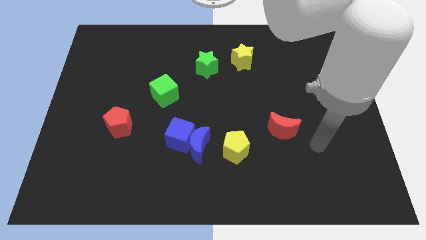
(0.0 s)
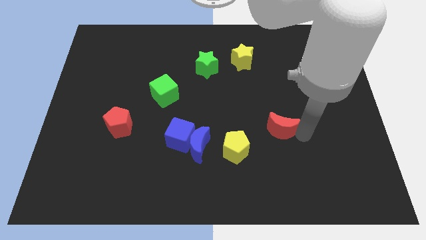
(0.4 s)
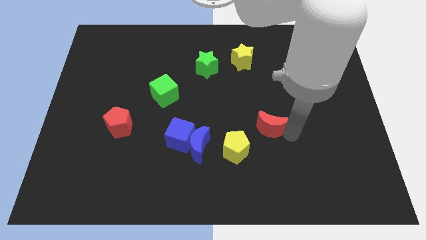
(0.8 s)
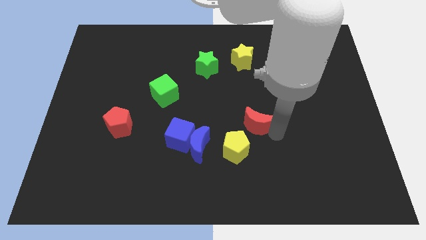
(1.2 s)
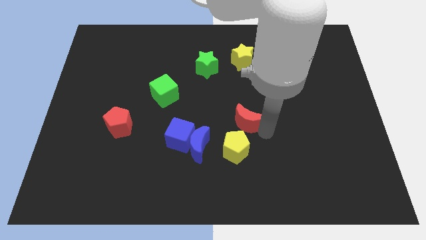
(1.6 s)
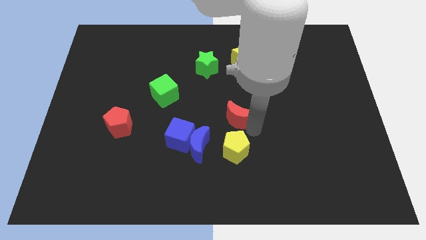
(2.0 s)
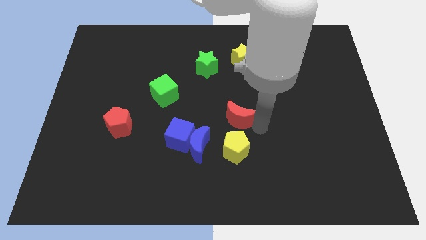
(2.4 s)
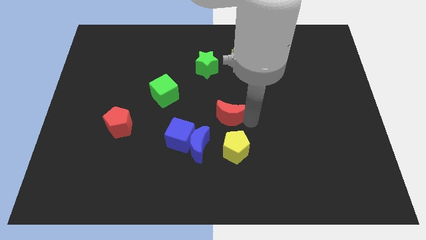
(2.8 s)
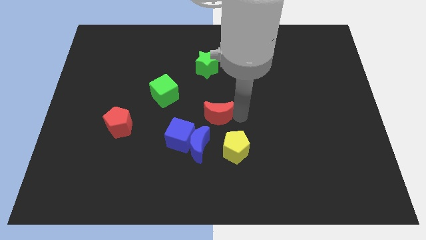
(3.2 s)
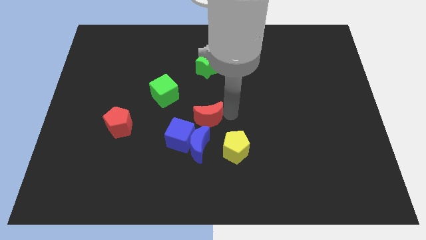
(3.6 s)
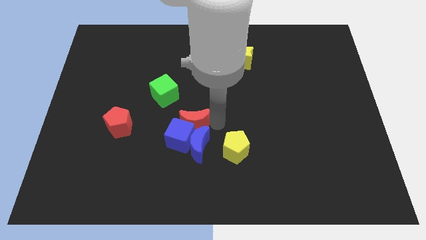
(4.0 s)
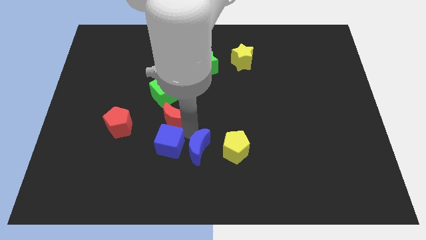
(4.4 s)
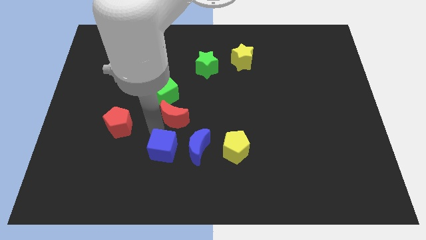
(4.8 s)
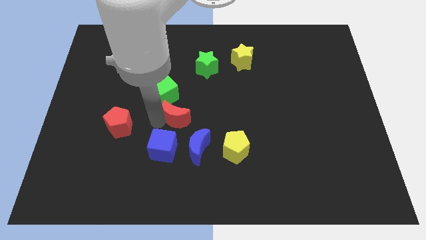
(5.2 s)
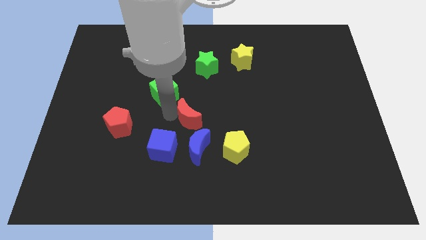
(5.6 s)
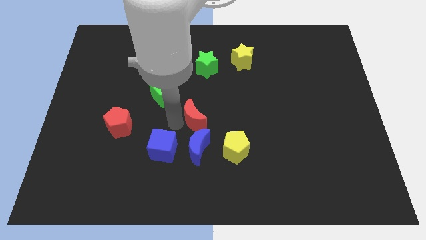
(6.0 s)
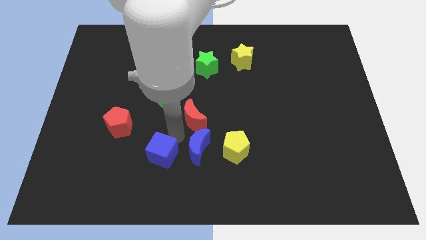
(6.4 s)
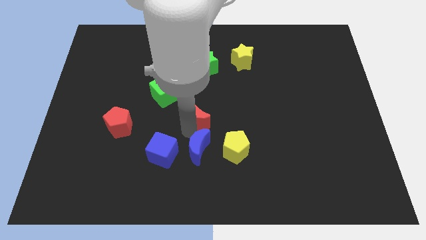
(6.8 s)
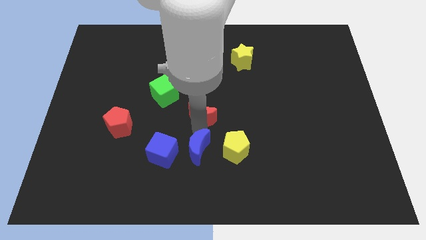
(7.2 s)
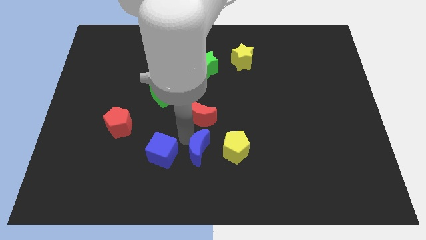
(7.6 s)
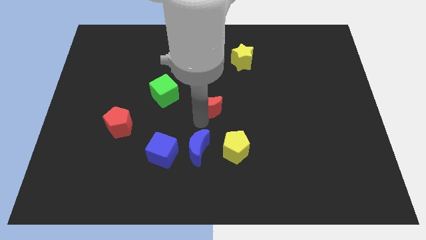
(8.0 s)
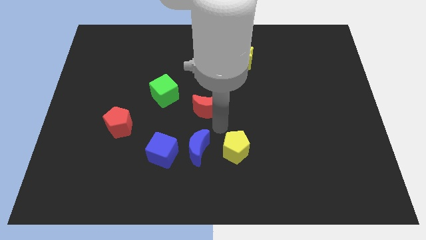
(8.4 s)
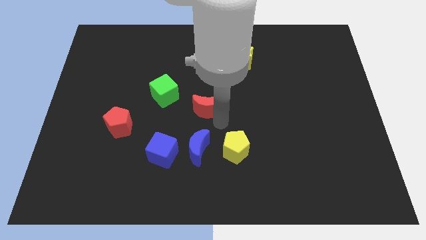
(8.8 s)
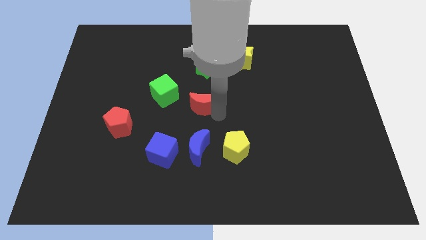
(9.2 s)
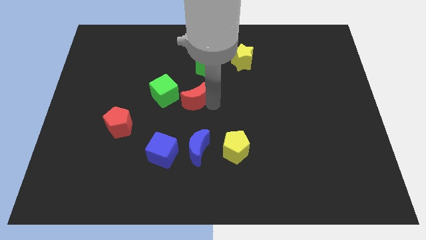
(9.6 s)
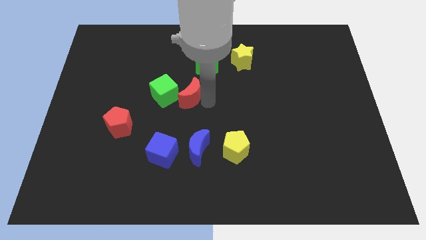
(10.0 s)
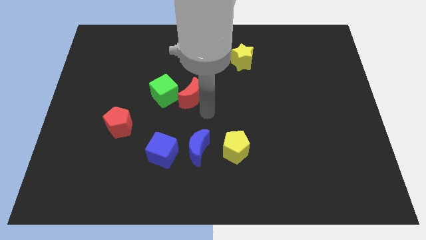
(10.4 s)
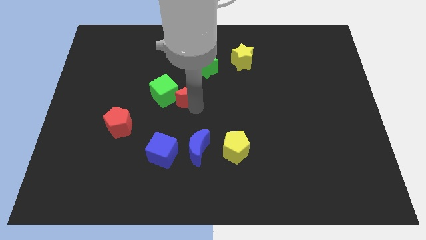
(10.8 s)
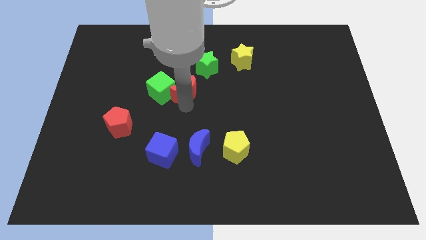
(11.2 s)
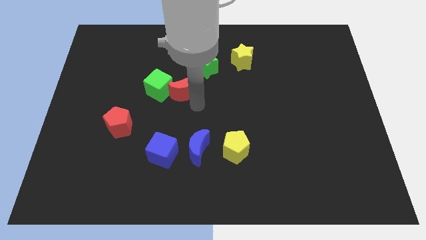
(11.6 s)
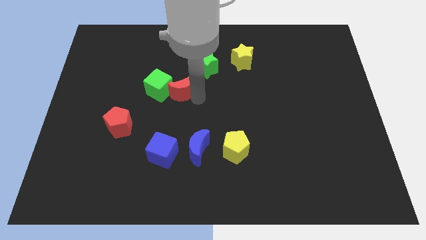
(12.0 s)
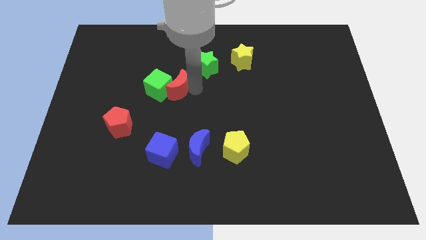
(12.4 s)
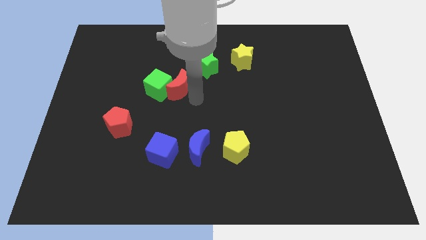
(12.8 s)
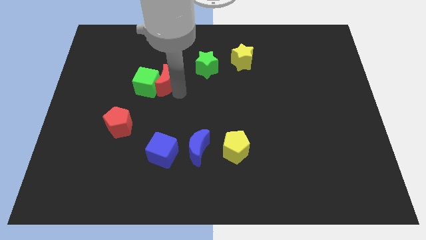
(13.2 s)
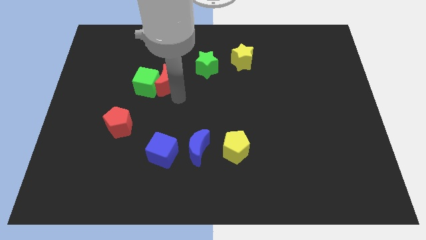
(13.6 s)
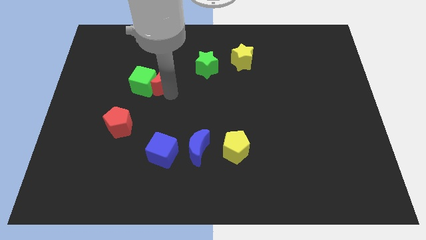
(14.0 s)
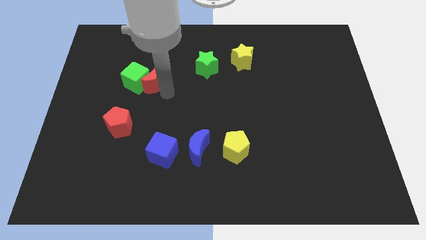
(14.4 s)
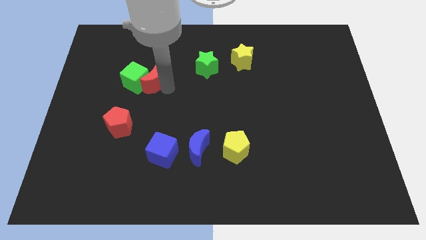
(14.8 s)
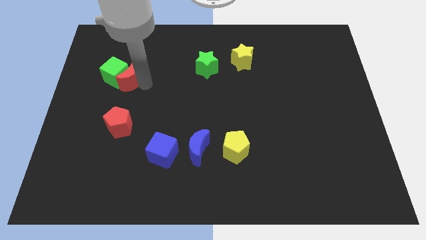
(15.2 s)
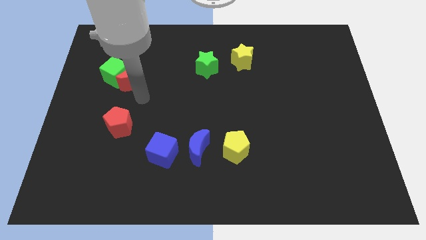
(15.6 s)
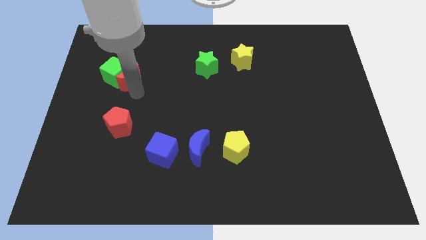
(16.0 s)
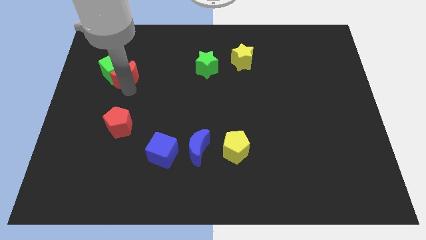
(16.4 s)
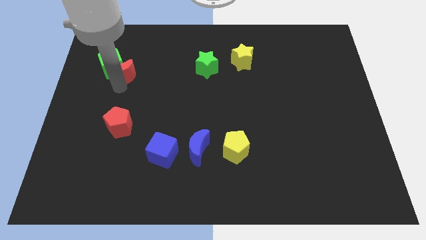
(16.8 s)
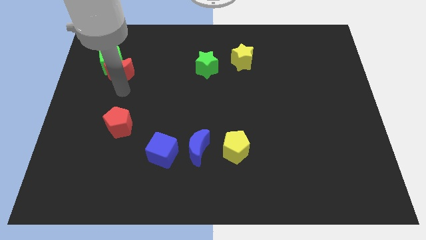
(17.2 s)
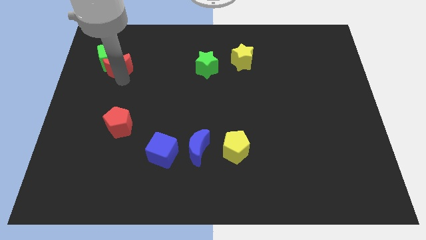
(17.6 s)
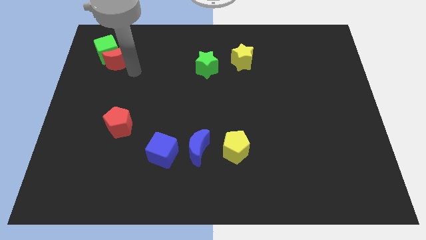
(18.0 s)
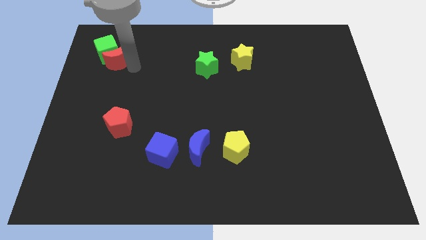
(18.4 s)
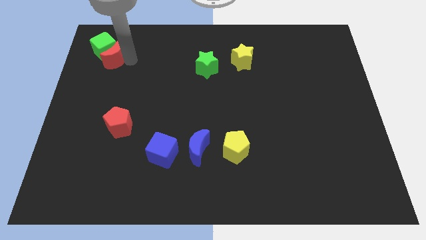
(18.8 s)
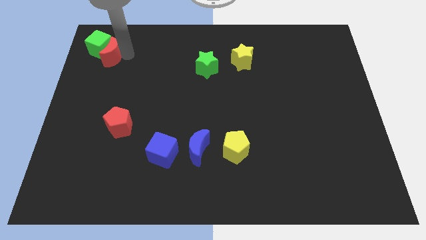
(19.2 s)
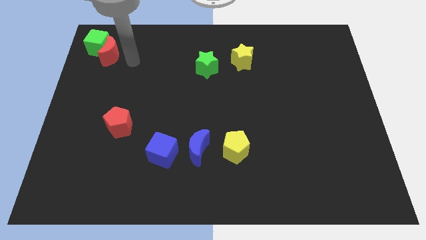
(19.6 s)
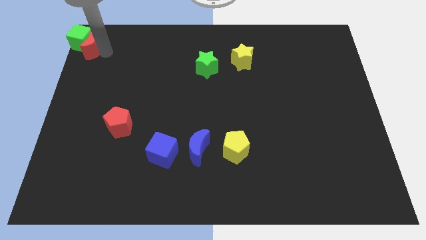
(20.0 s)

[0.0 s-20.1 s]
push the red moon to the top left corner

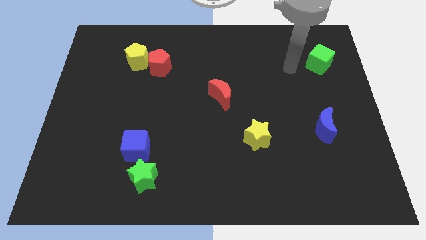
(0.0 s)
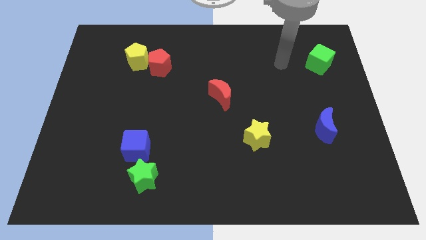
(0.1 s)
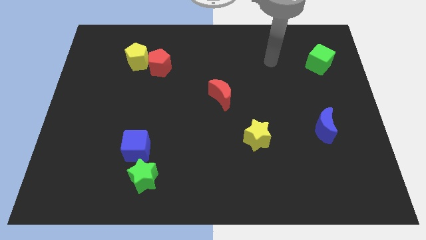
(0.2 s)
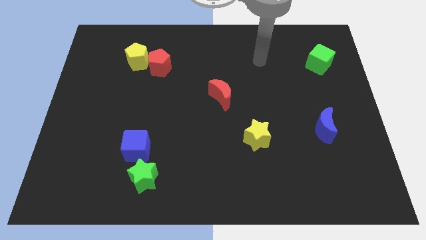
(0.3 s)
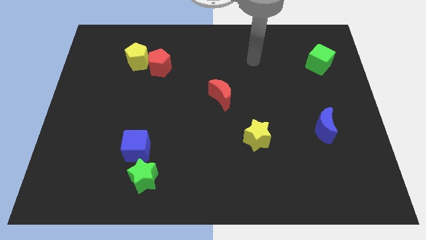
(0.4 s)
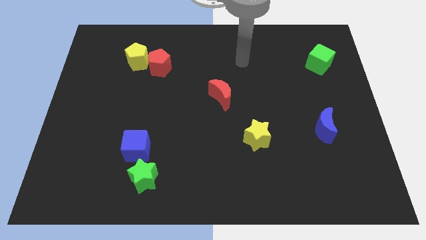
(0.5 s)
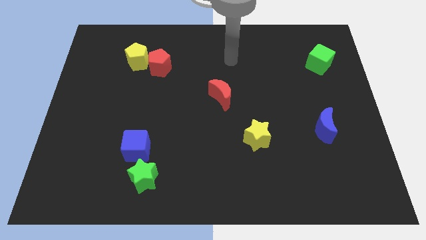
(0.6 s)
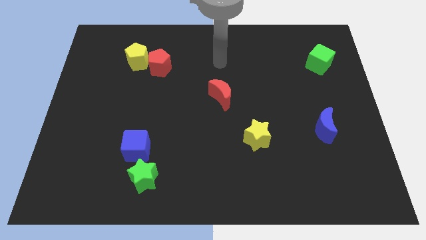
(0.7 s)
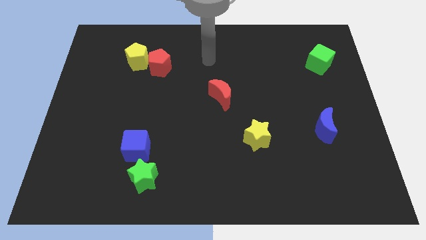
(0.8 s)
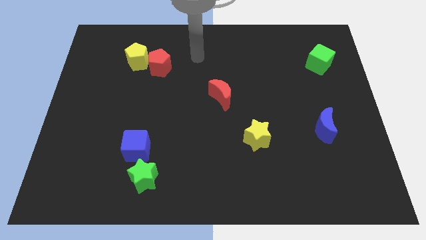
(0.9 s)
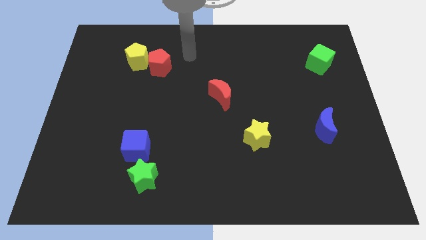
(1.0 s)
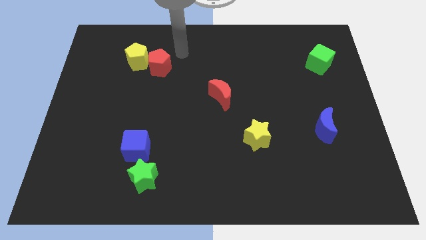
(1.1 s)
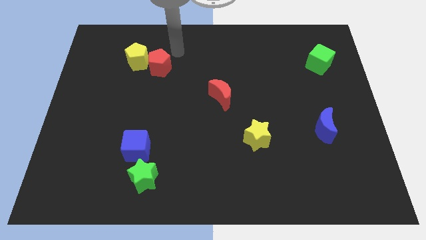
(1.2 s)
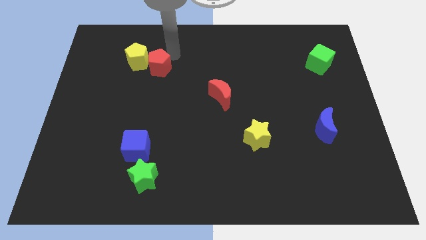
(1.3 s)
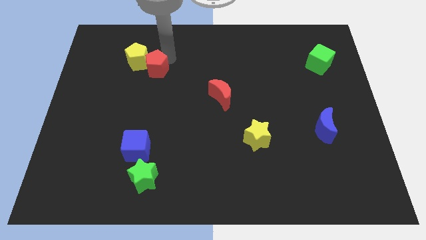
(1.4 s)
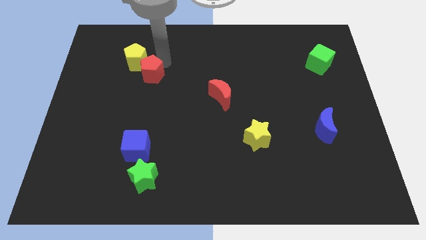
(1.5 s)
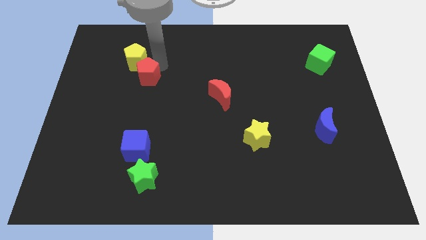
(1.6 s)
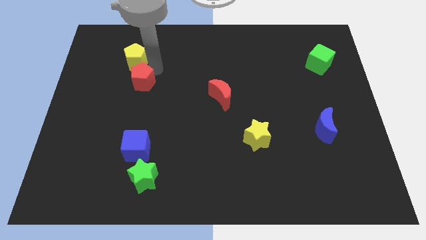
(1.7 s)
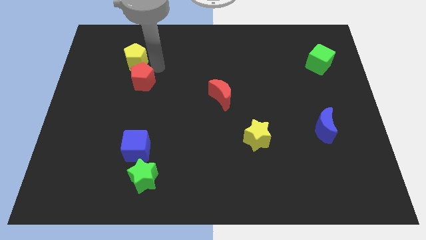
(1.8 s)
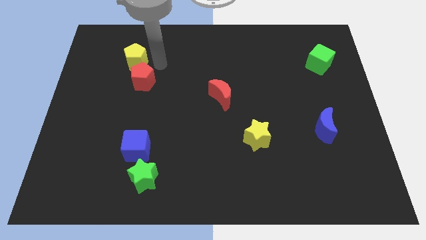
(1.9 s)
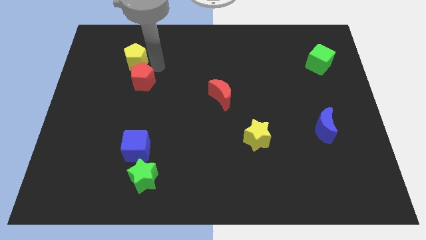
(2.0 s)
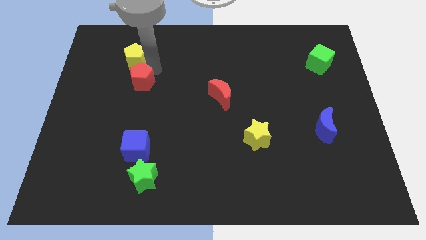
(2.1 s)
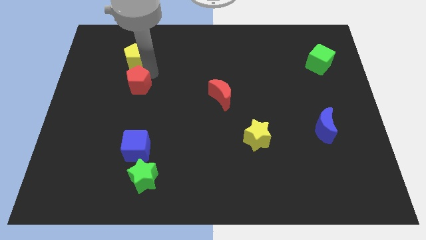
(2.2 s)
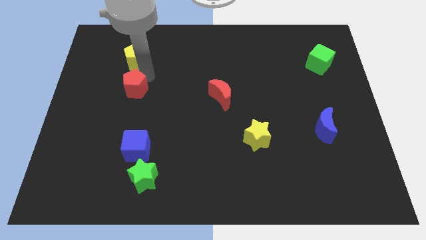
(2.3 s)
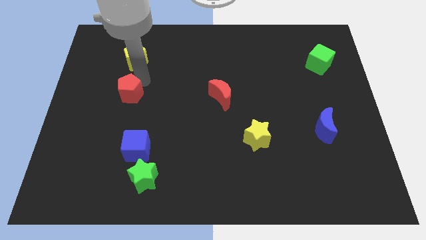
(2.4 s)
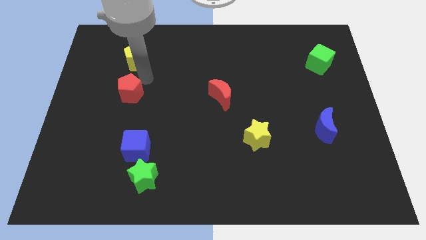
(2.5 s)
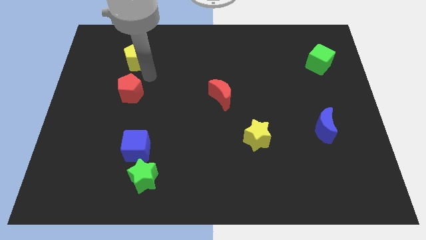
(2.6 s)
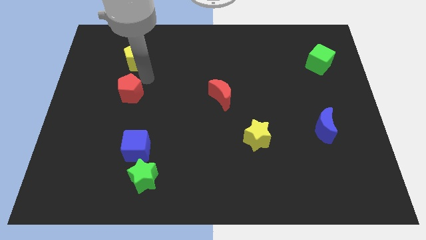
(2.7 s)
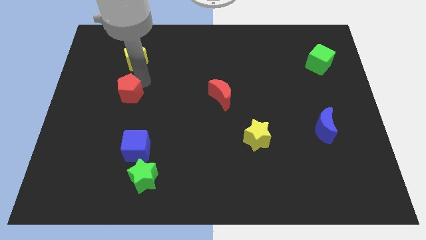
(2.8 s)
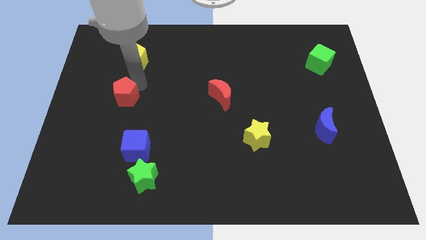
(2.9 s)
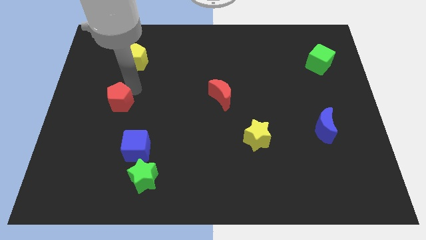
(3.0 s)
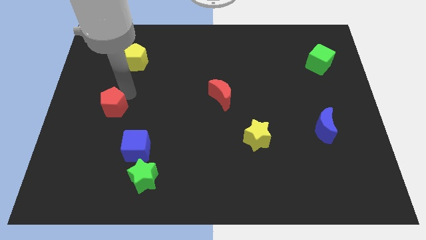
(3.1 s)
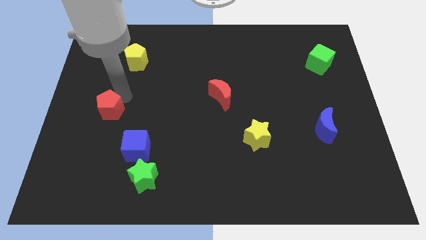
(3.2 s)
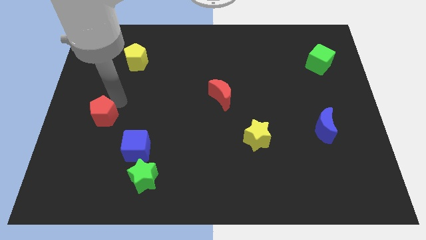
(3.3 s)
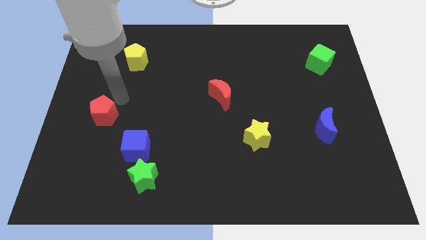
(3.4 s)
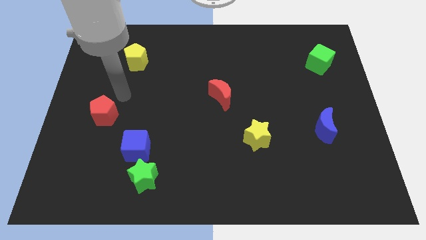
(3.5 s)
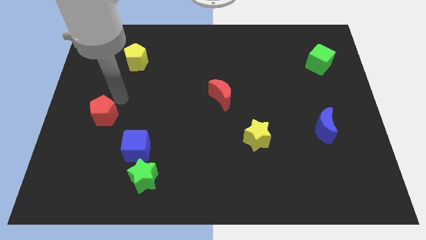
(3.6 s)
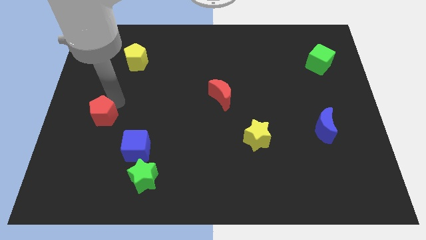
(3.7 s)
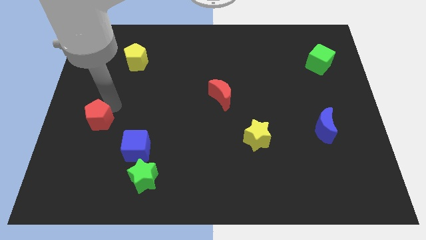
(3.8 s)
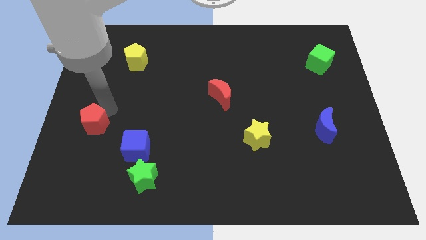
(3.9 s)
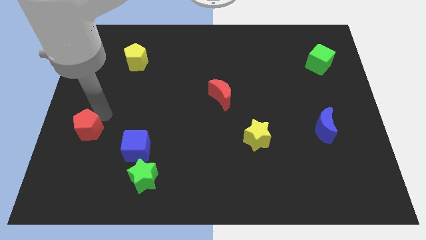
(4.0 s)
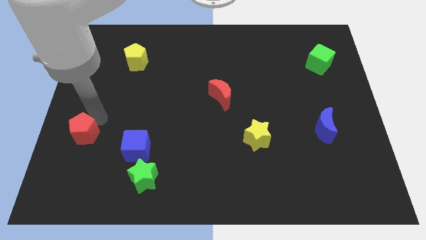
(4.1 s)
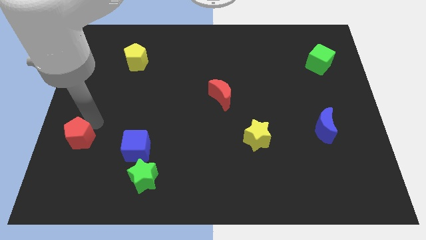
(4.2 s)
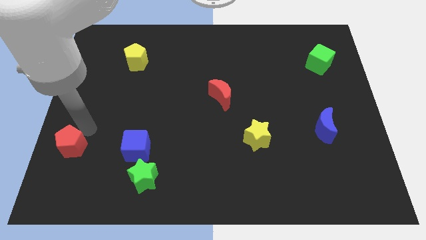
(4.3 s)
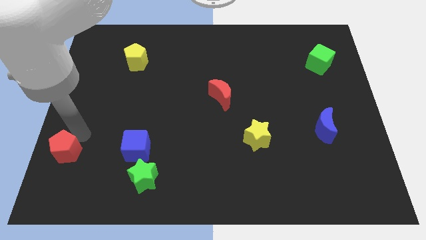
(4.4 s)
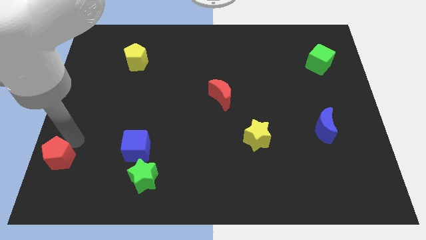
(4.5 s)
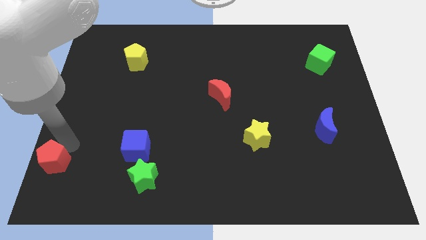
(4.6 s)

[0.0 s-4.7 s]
push the red pentagon to the bottom left of the board
